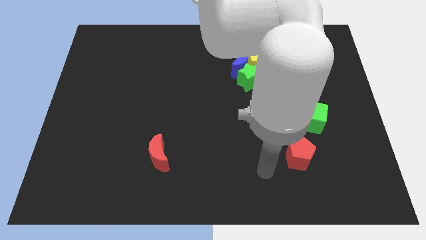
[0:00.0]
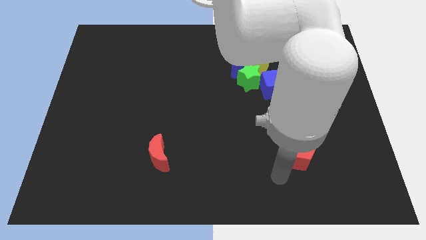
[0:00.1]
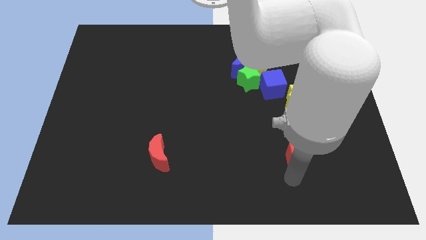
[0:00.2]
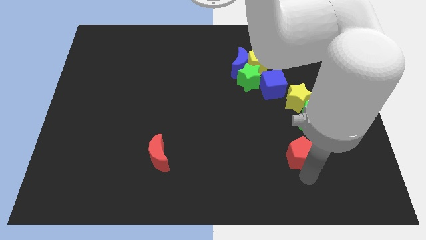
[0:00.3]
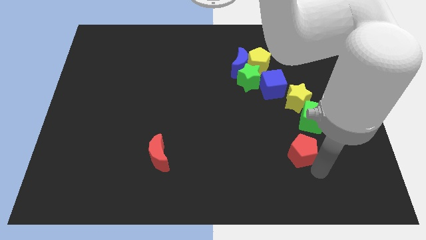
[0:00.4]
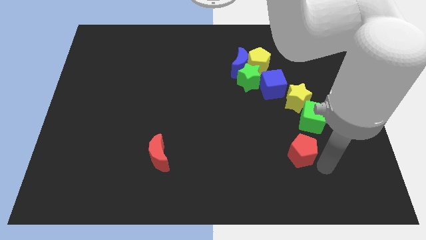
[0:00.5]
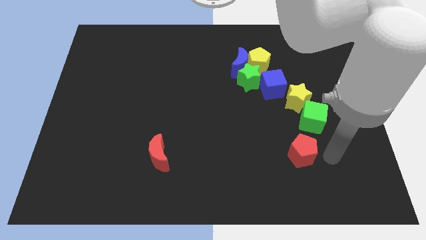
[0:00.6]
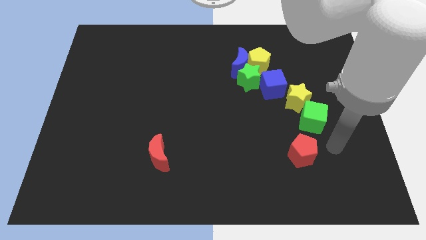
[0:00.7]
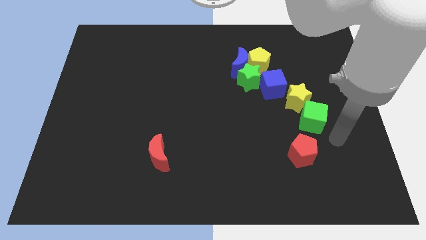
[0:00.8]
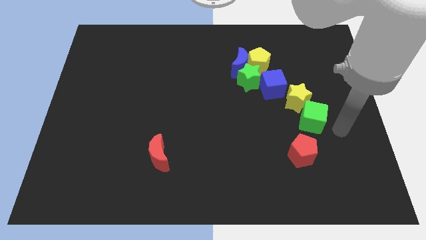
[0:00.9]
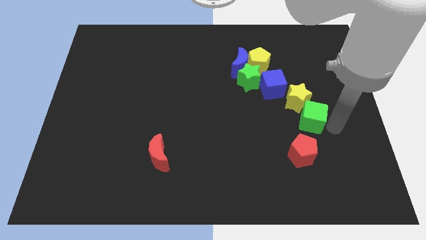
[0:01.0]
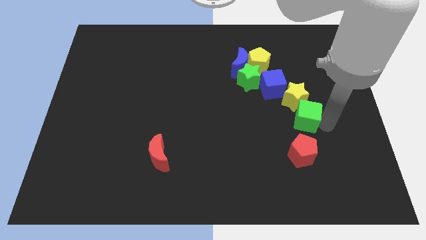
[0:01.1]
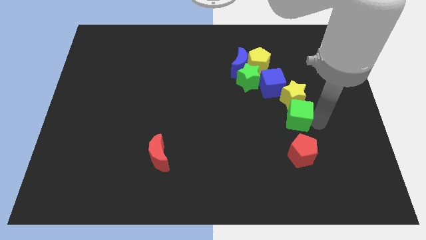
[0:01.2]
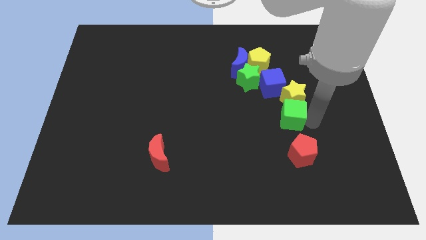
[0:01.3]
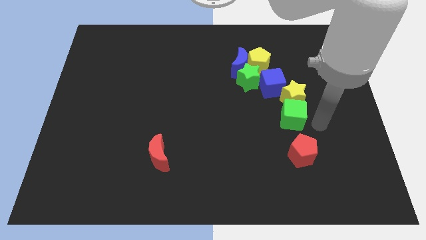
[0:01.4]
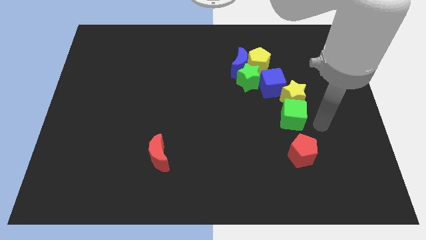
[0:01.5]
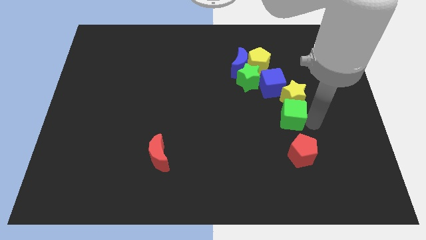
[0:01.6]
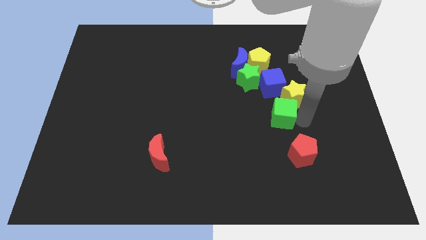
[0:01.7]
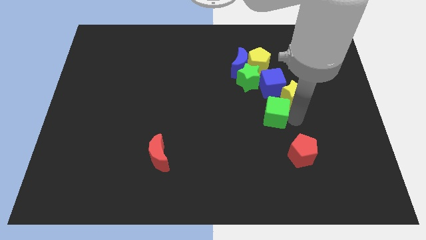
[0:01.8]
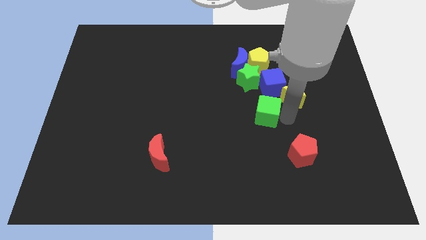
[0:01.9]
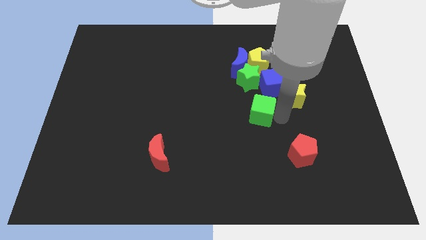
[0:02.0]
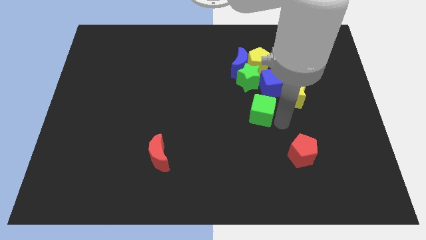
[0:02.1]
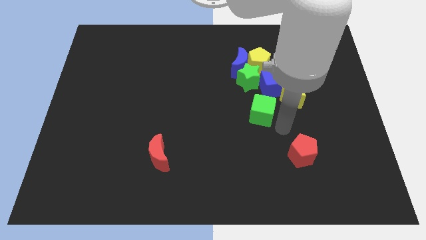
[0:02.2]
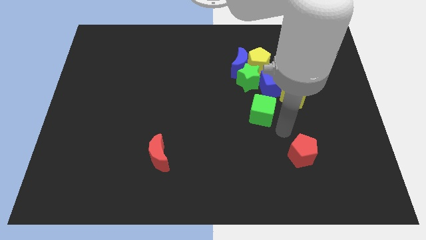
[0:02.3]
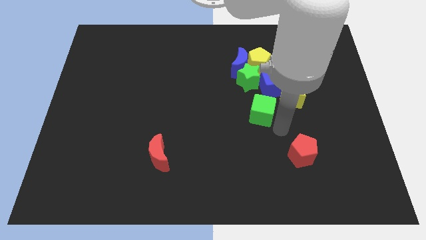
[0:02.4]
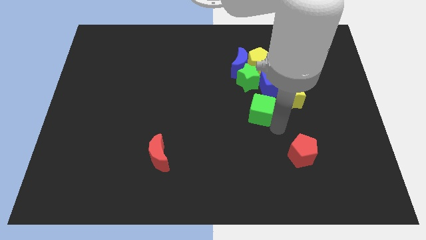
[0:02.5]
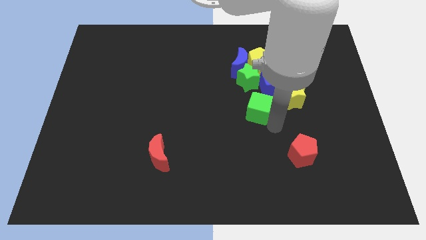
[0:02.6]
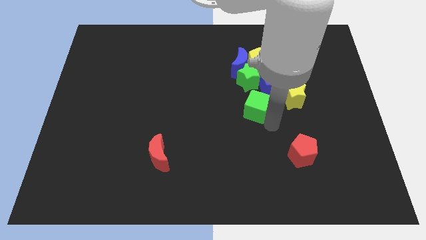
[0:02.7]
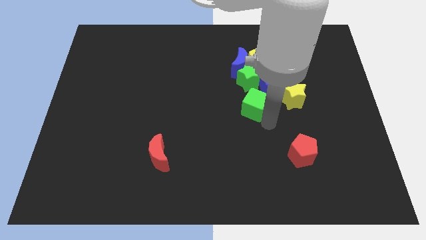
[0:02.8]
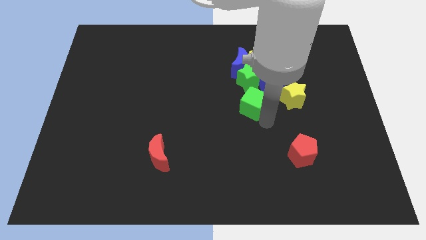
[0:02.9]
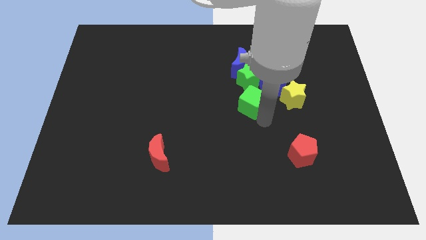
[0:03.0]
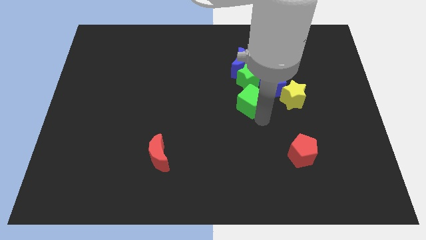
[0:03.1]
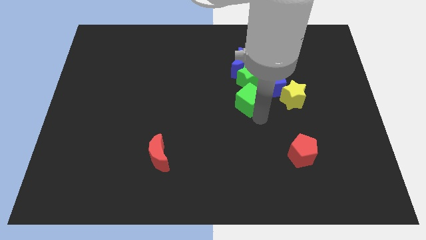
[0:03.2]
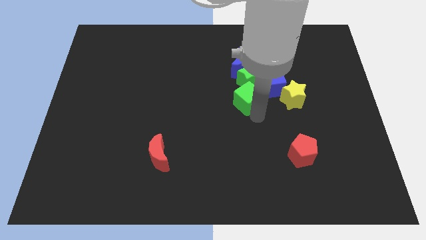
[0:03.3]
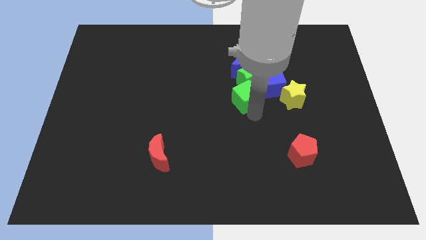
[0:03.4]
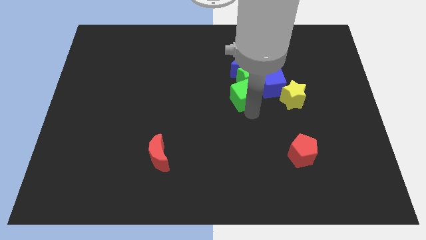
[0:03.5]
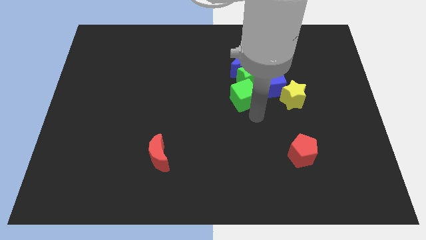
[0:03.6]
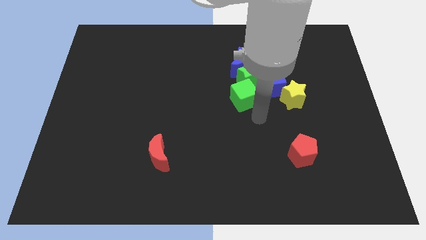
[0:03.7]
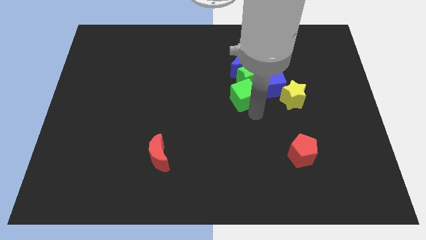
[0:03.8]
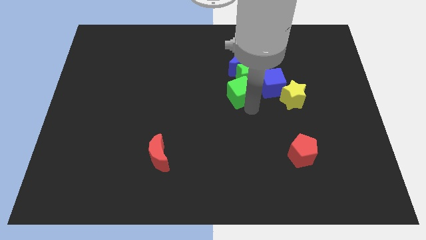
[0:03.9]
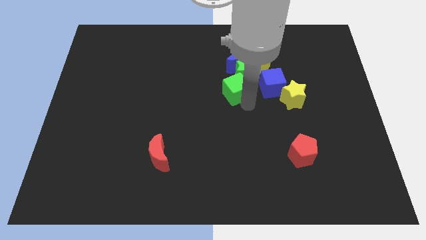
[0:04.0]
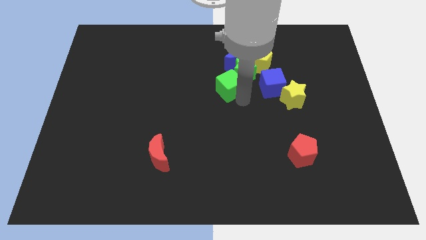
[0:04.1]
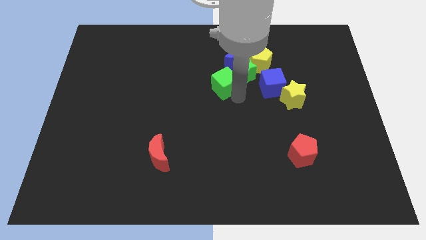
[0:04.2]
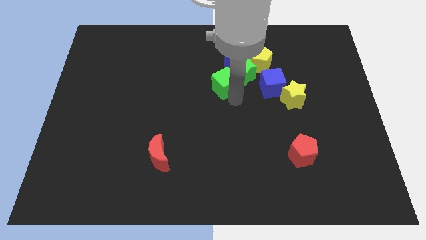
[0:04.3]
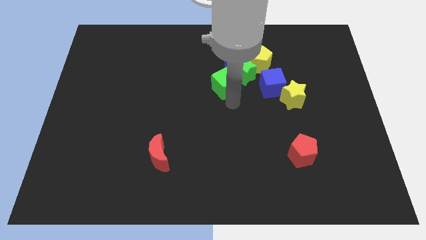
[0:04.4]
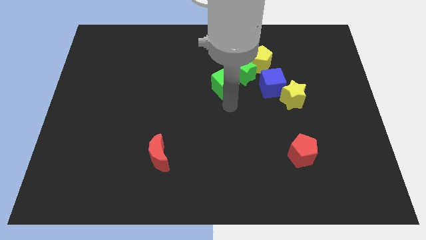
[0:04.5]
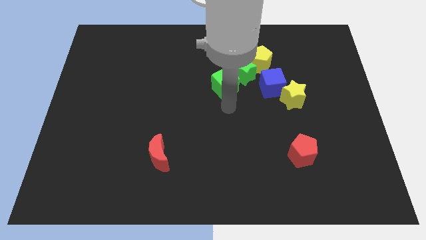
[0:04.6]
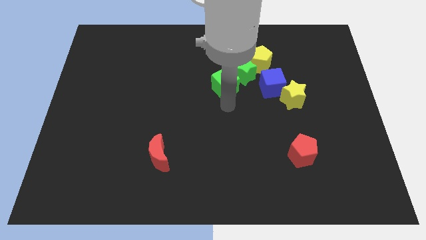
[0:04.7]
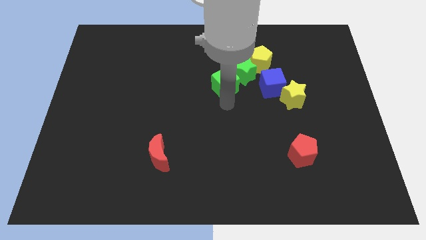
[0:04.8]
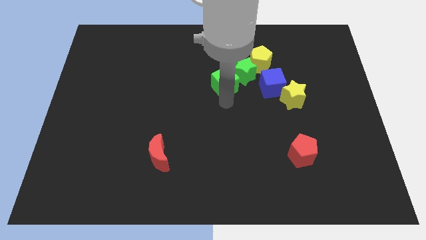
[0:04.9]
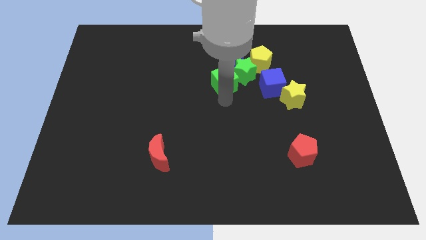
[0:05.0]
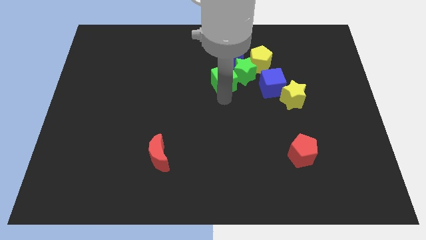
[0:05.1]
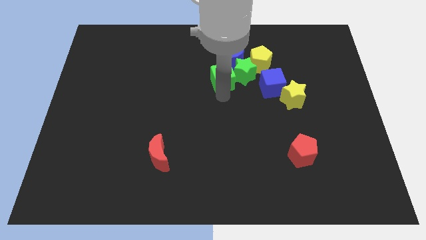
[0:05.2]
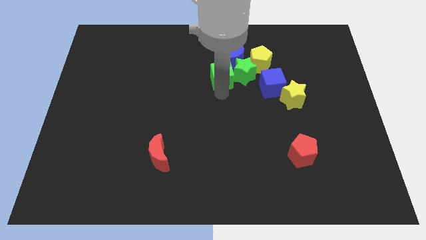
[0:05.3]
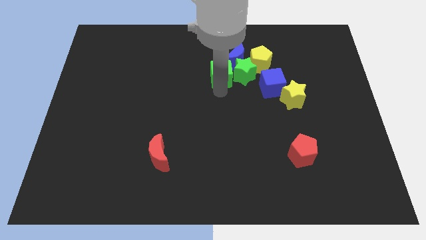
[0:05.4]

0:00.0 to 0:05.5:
slide the green cube to the top left side of the green star
